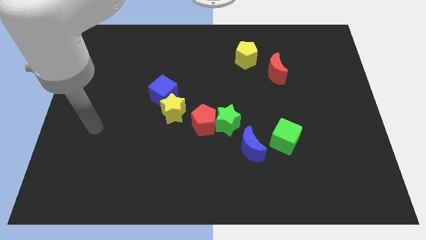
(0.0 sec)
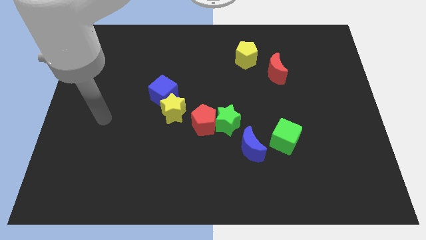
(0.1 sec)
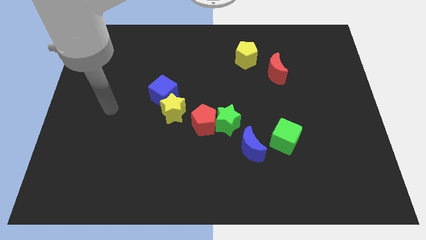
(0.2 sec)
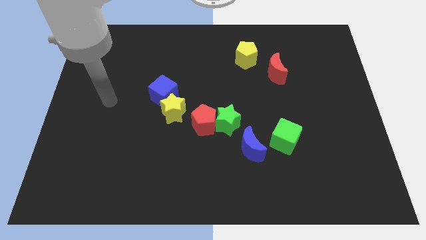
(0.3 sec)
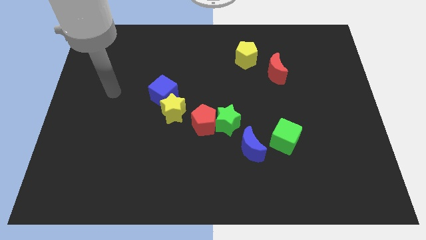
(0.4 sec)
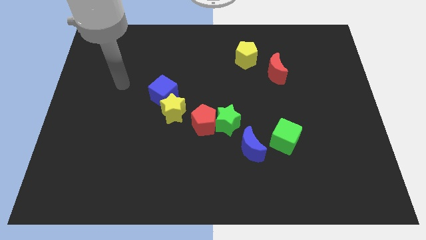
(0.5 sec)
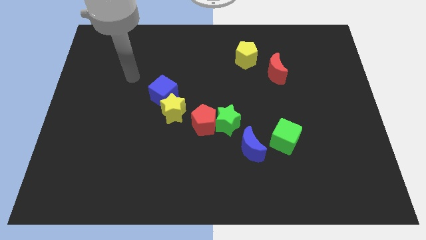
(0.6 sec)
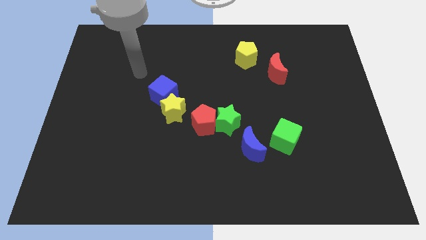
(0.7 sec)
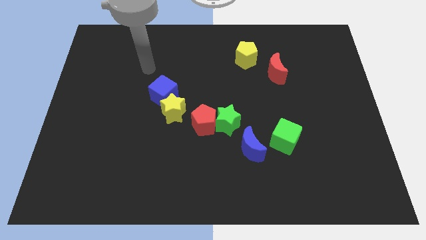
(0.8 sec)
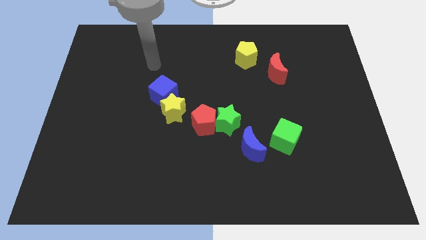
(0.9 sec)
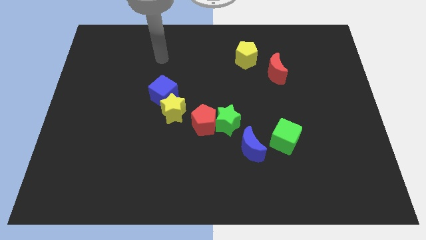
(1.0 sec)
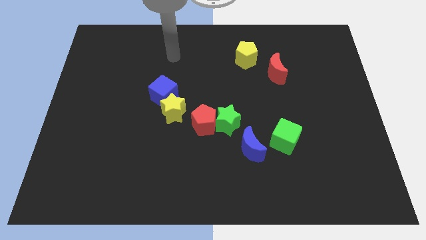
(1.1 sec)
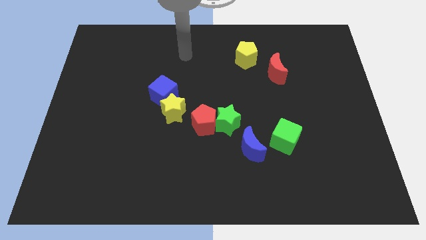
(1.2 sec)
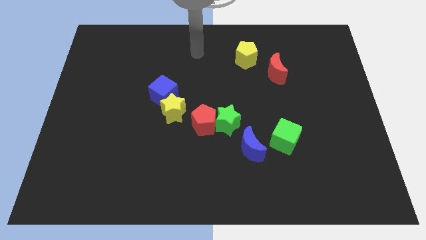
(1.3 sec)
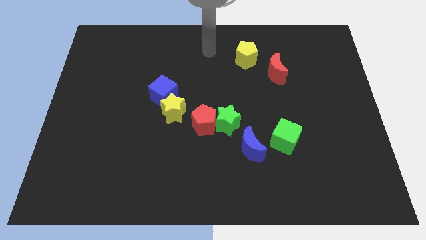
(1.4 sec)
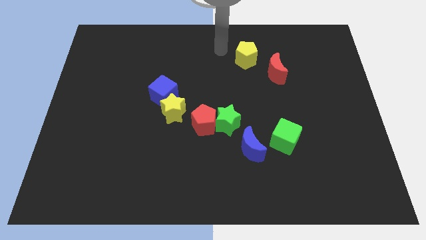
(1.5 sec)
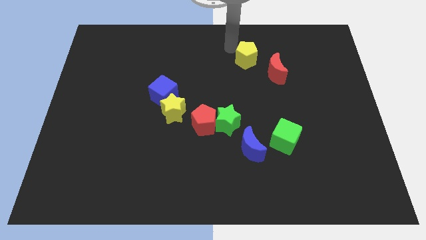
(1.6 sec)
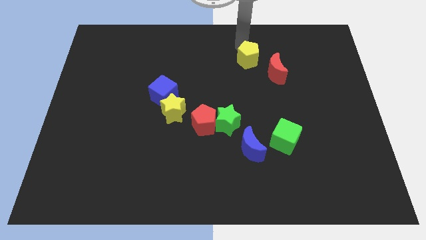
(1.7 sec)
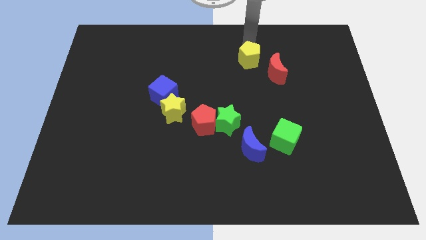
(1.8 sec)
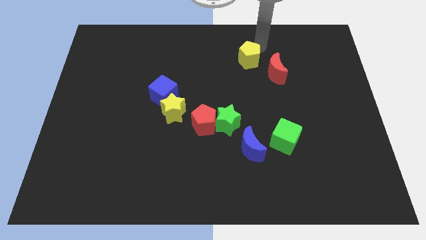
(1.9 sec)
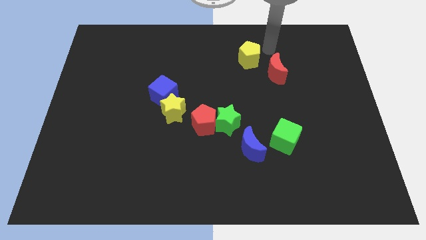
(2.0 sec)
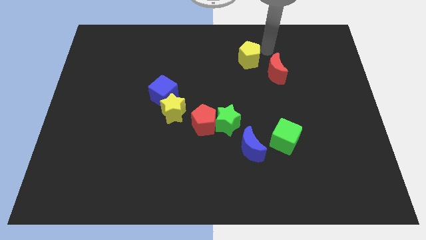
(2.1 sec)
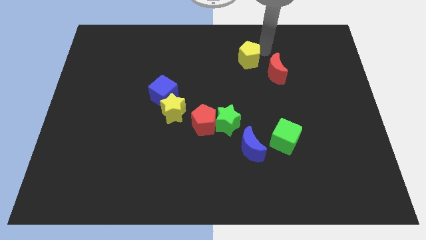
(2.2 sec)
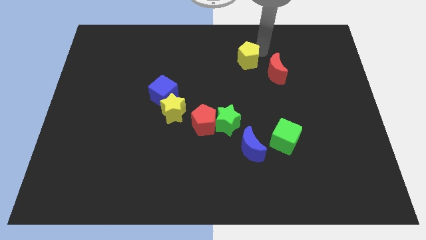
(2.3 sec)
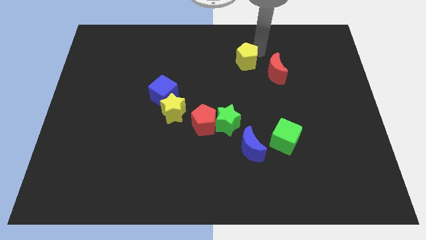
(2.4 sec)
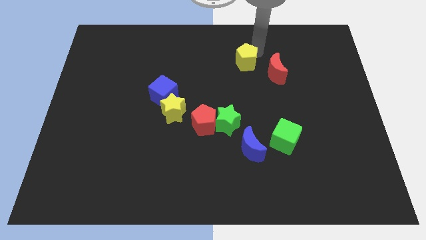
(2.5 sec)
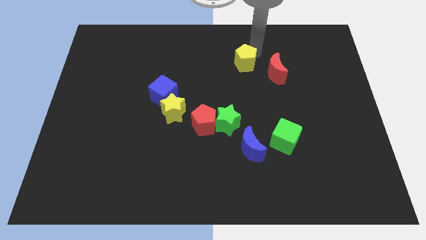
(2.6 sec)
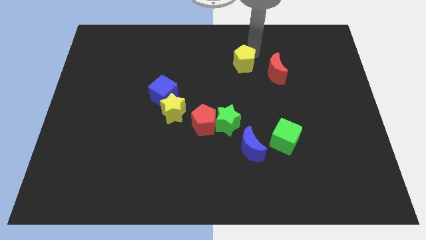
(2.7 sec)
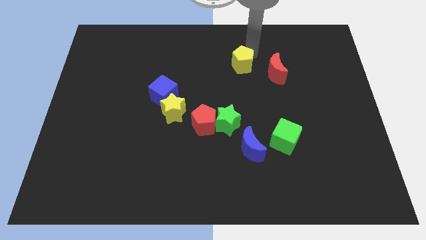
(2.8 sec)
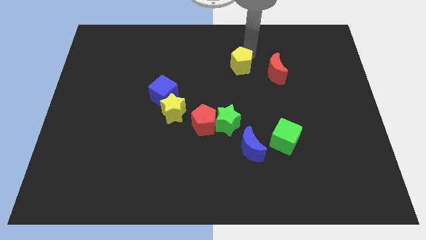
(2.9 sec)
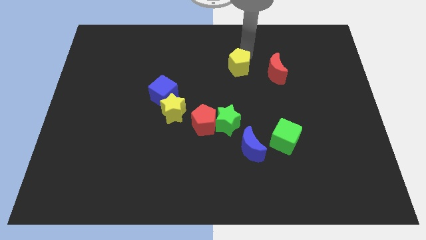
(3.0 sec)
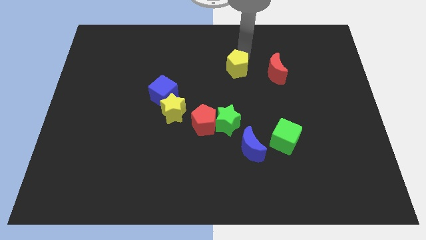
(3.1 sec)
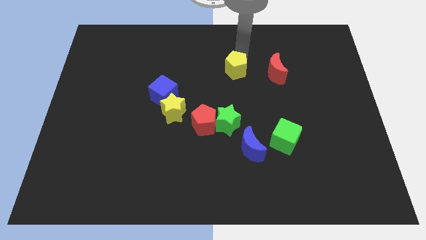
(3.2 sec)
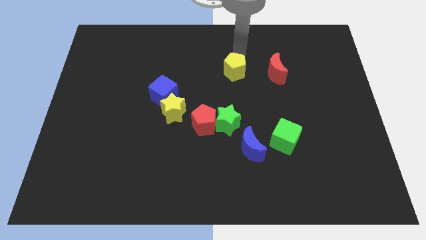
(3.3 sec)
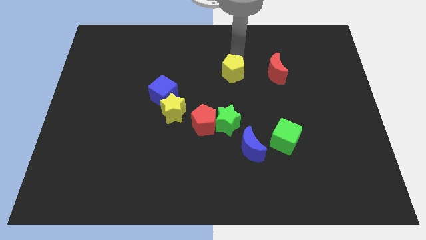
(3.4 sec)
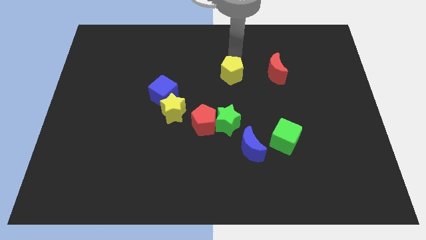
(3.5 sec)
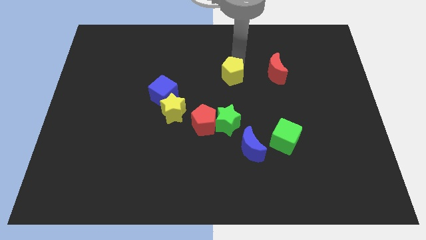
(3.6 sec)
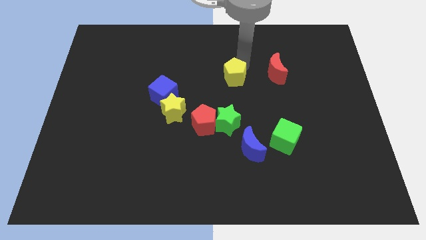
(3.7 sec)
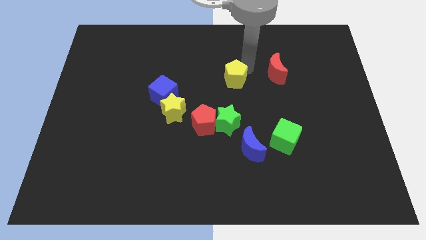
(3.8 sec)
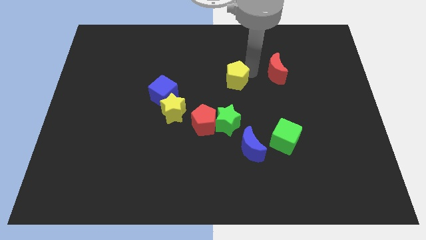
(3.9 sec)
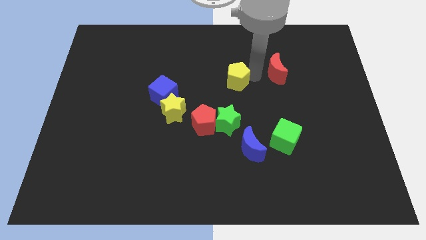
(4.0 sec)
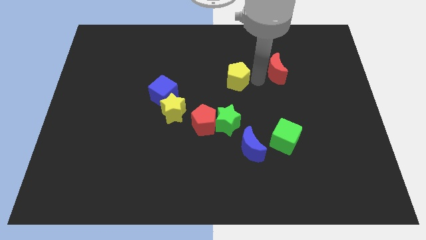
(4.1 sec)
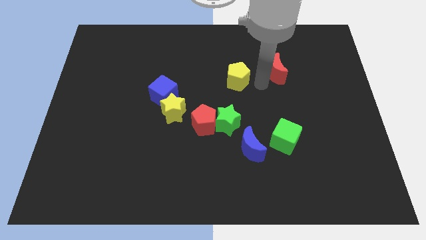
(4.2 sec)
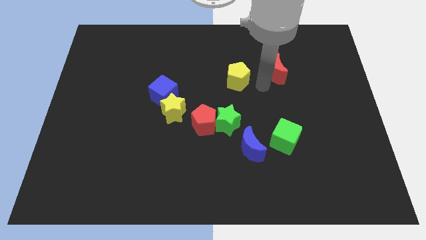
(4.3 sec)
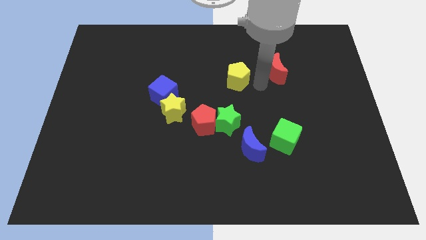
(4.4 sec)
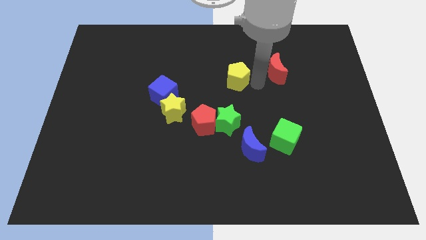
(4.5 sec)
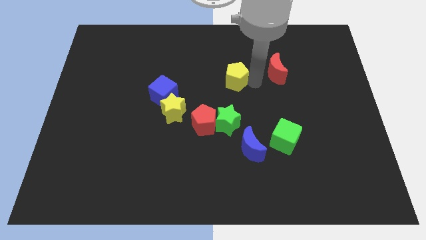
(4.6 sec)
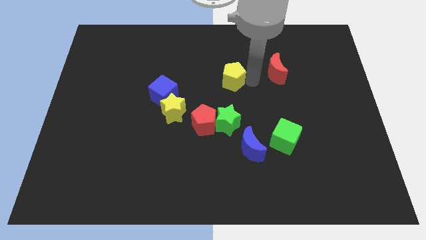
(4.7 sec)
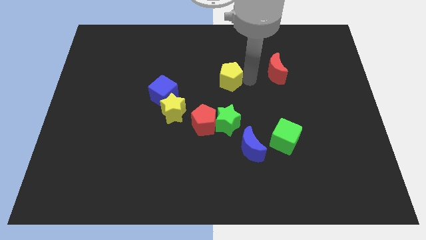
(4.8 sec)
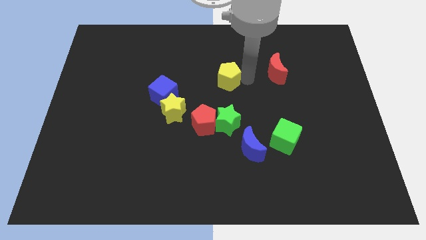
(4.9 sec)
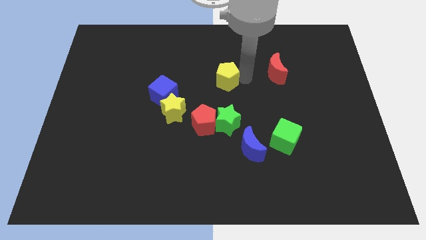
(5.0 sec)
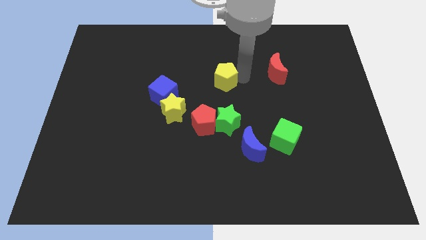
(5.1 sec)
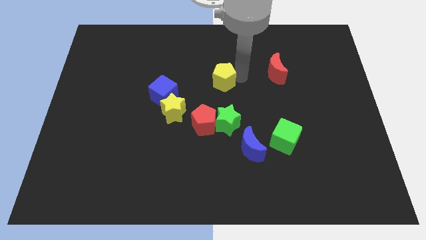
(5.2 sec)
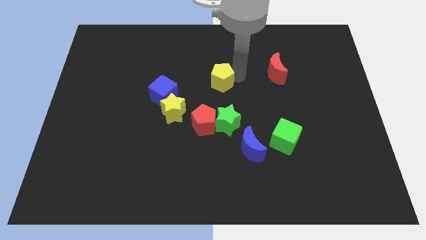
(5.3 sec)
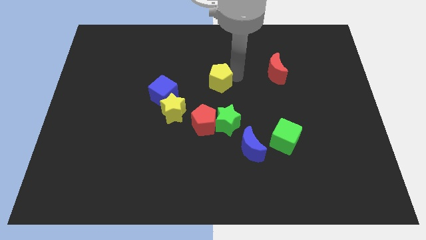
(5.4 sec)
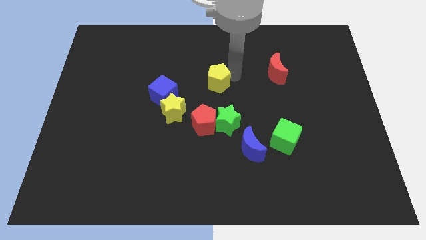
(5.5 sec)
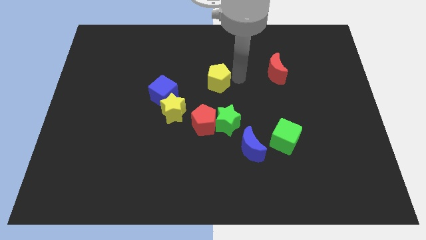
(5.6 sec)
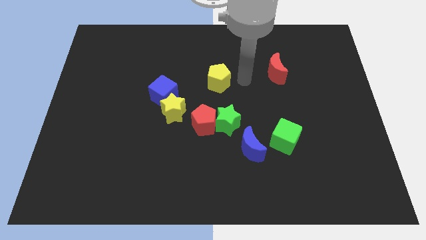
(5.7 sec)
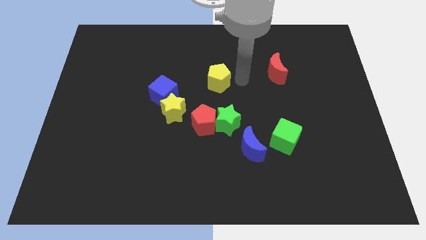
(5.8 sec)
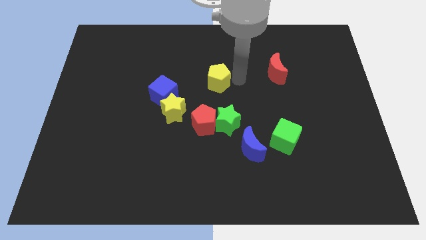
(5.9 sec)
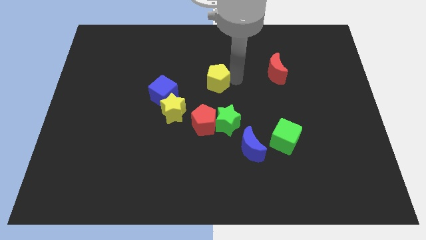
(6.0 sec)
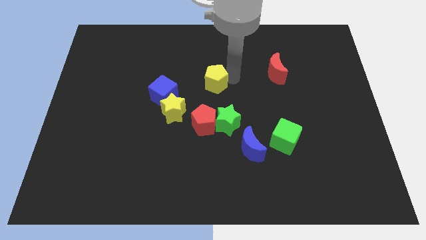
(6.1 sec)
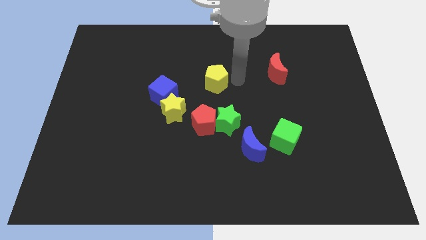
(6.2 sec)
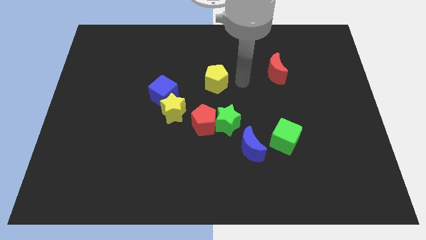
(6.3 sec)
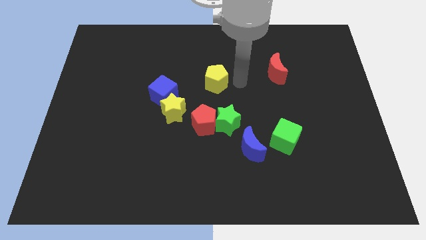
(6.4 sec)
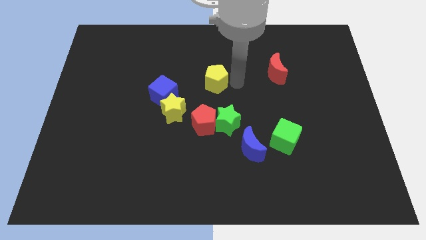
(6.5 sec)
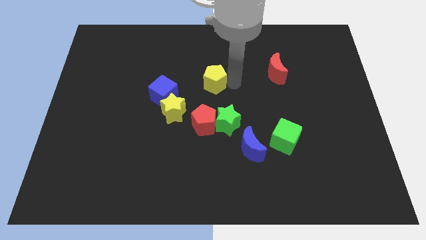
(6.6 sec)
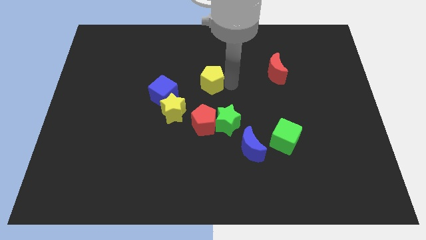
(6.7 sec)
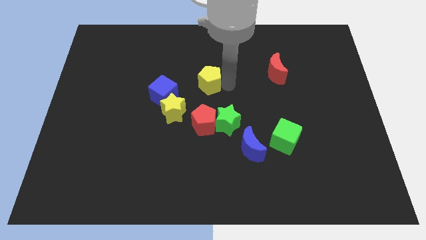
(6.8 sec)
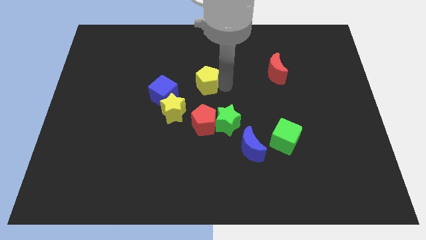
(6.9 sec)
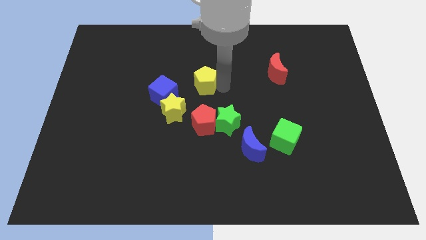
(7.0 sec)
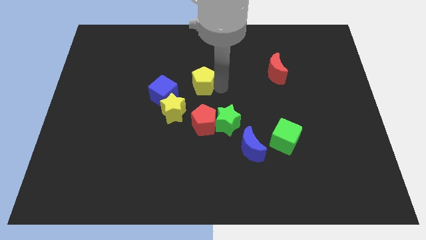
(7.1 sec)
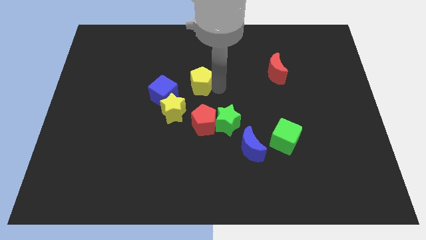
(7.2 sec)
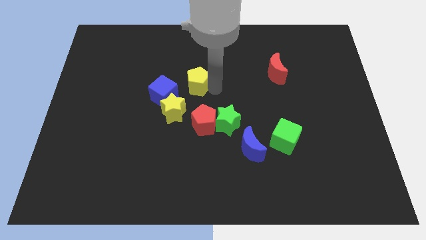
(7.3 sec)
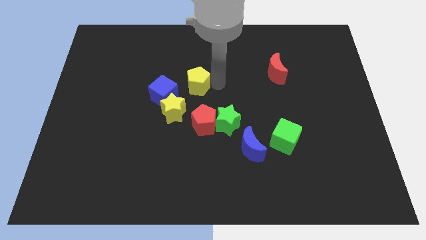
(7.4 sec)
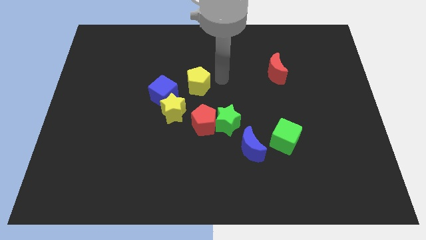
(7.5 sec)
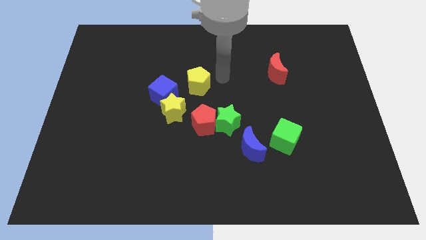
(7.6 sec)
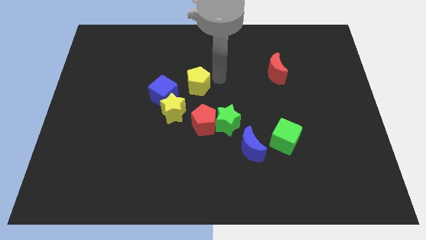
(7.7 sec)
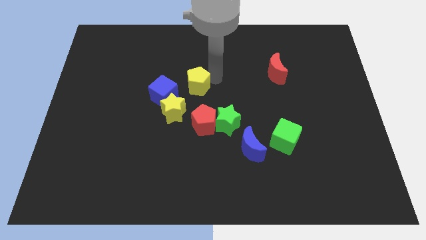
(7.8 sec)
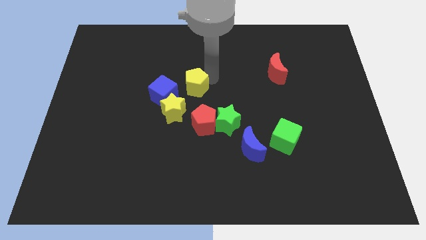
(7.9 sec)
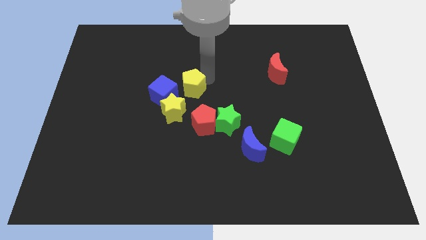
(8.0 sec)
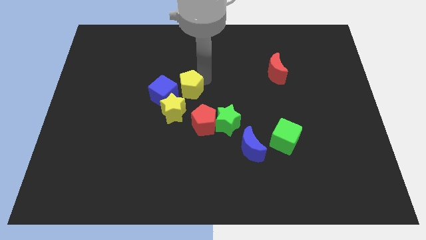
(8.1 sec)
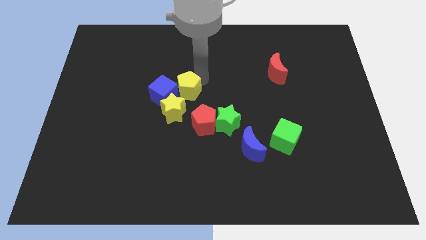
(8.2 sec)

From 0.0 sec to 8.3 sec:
move the yellow pentagon towards the blue cube
